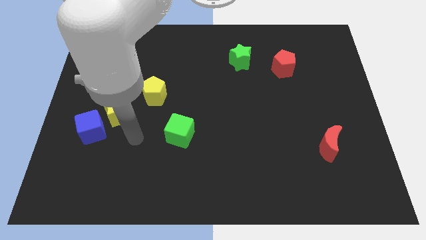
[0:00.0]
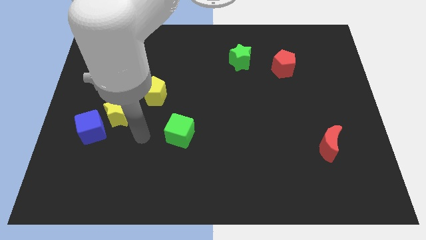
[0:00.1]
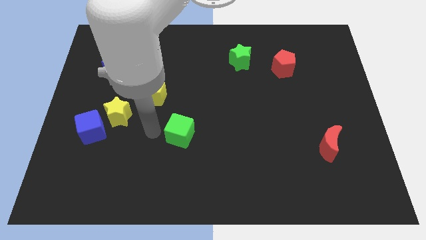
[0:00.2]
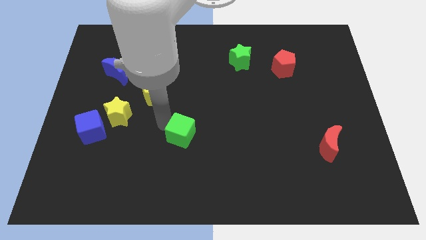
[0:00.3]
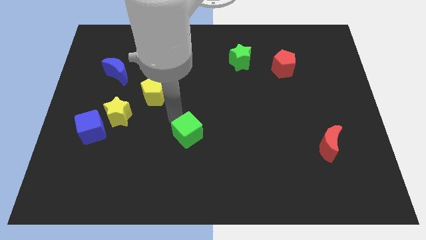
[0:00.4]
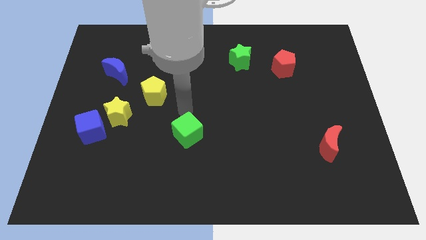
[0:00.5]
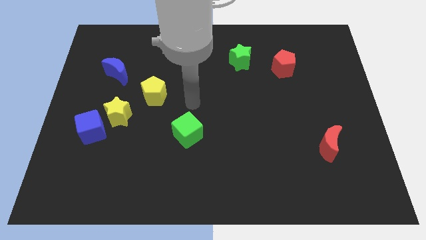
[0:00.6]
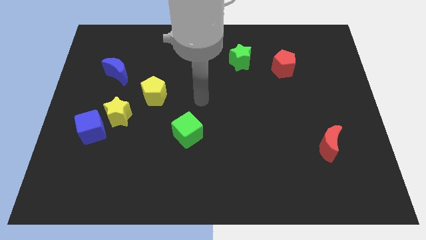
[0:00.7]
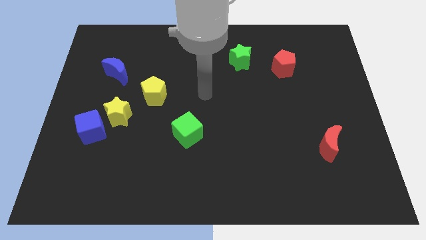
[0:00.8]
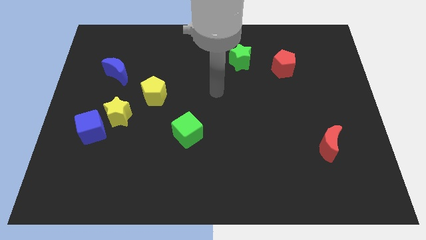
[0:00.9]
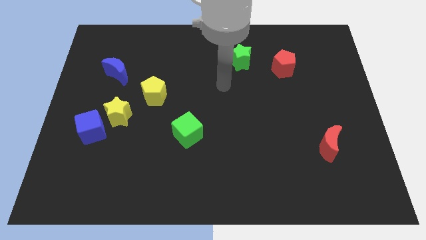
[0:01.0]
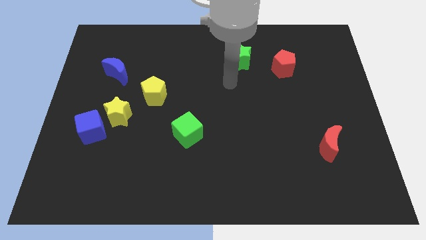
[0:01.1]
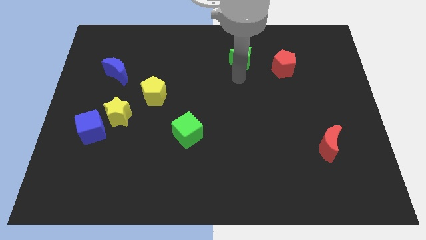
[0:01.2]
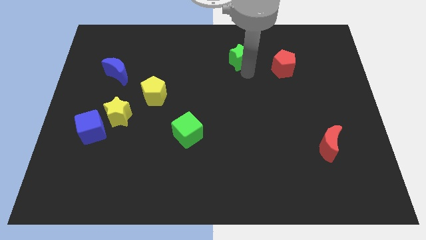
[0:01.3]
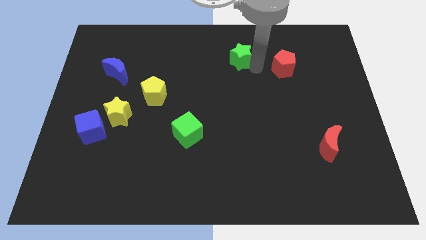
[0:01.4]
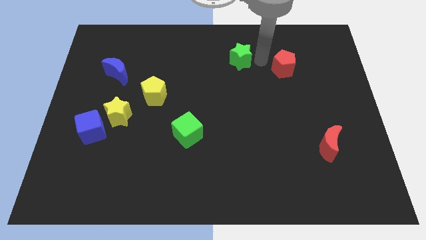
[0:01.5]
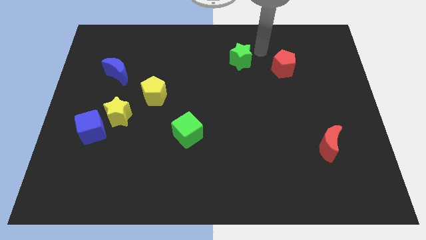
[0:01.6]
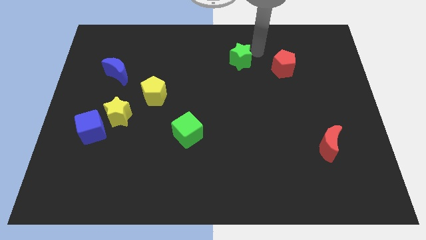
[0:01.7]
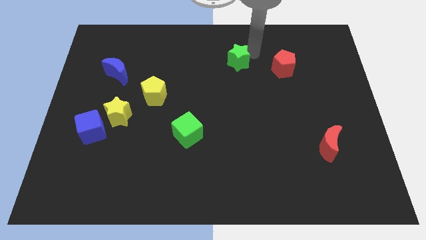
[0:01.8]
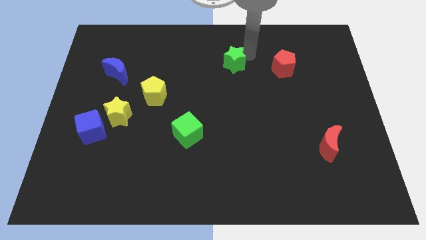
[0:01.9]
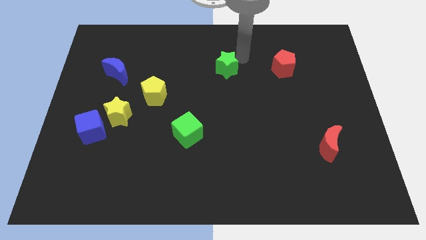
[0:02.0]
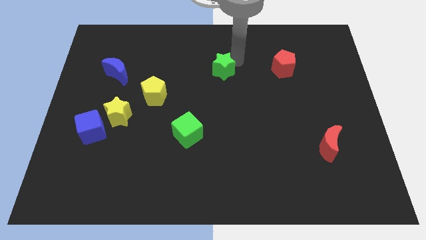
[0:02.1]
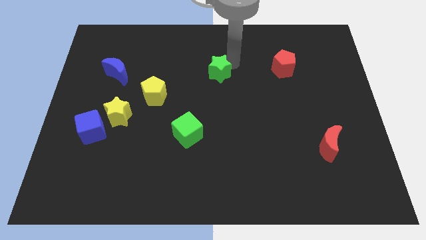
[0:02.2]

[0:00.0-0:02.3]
move the green star slightly down and then left

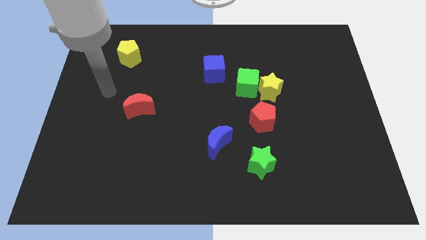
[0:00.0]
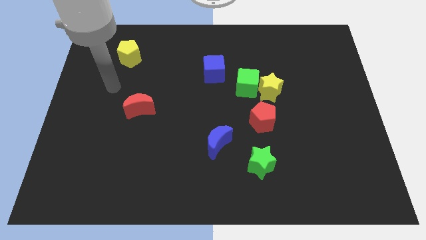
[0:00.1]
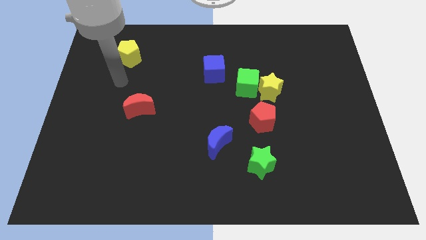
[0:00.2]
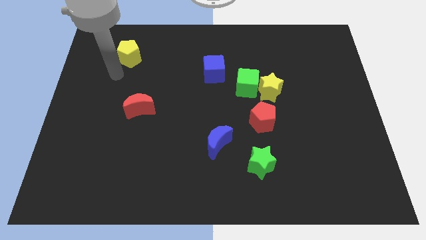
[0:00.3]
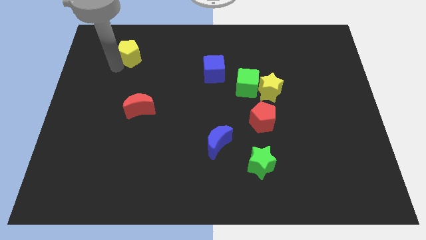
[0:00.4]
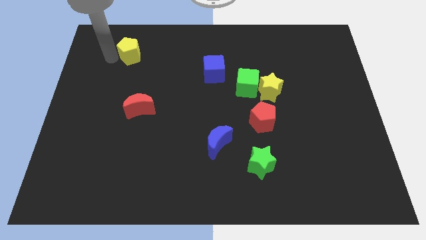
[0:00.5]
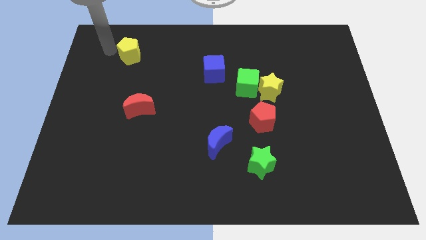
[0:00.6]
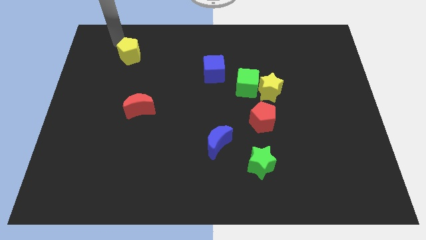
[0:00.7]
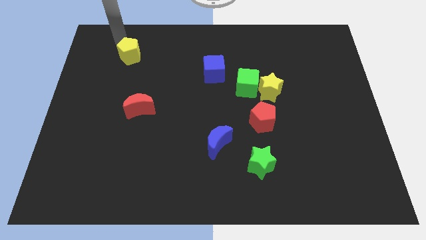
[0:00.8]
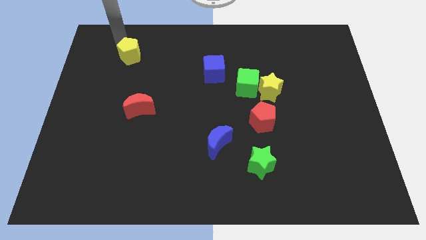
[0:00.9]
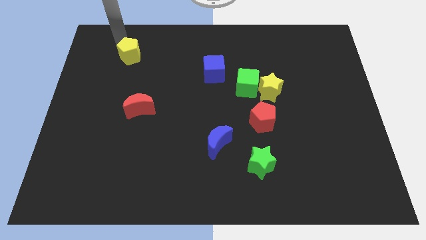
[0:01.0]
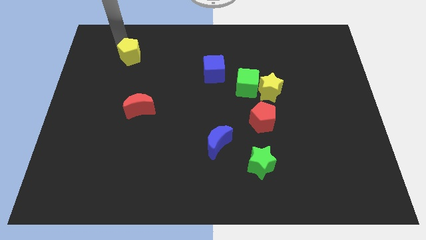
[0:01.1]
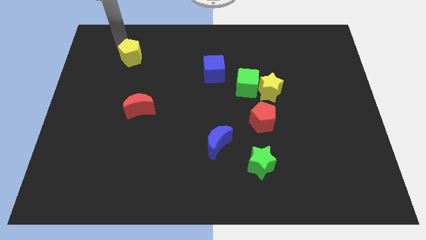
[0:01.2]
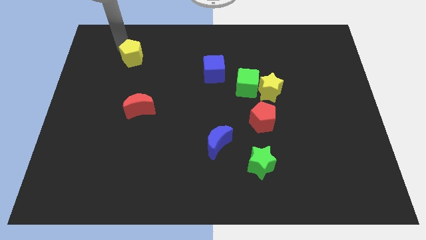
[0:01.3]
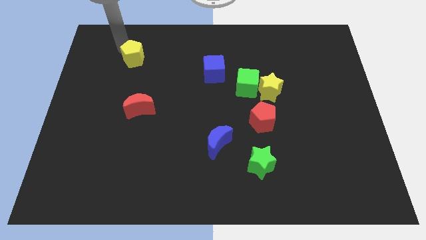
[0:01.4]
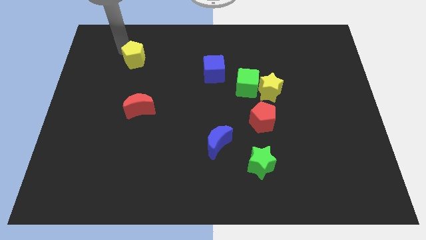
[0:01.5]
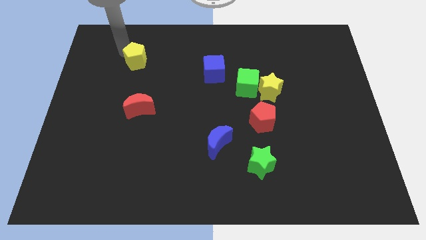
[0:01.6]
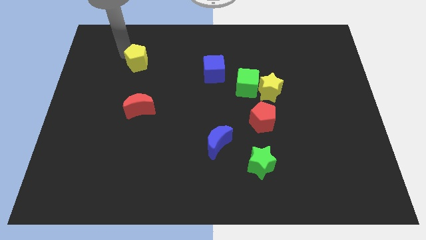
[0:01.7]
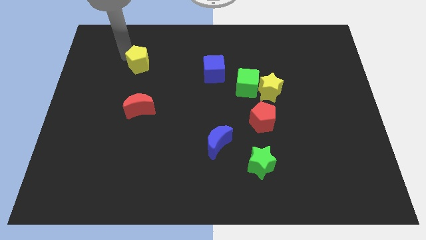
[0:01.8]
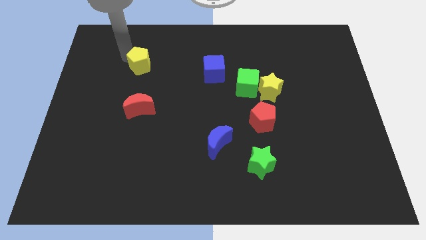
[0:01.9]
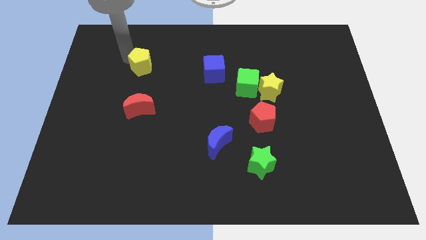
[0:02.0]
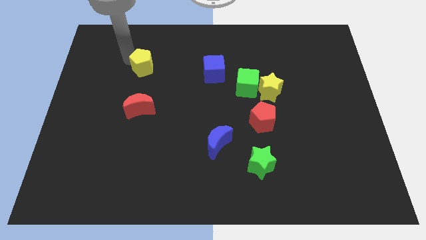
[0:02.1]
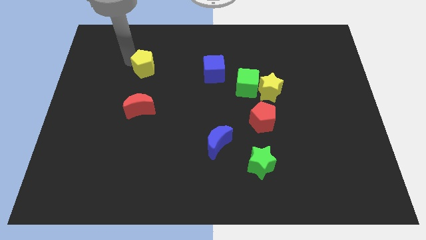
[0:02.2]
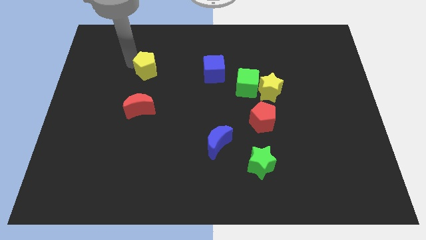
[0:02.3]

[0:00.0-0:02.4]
slightly move the yellow pentagon diagonally down and to the right

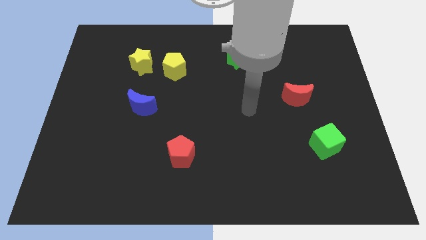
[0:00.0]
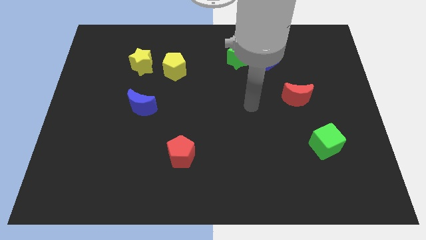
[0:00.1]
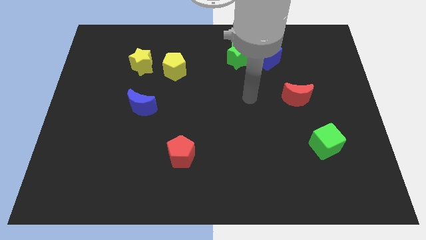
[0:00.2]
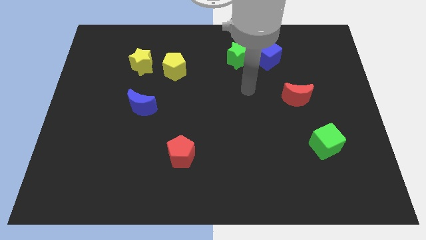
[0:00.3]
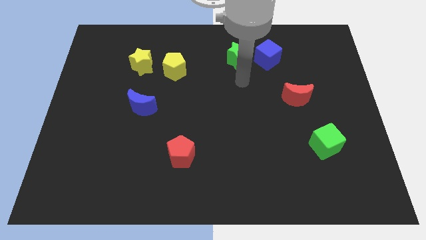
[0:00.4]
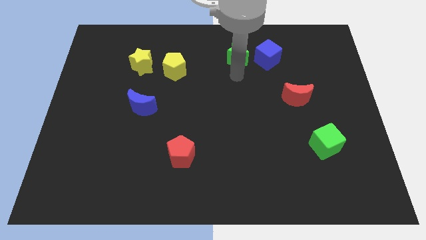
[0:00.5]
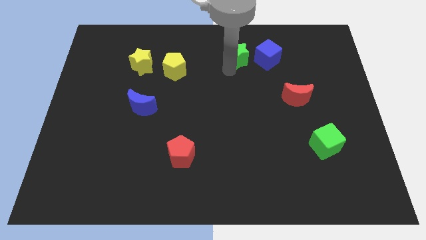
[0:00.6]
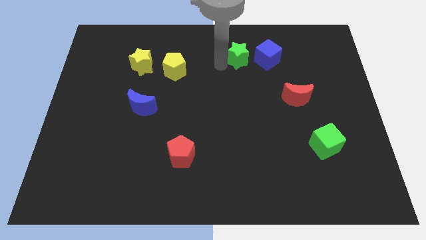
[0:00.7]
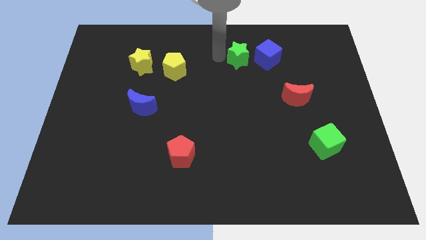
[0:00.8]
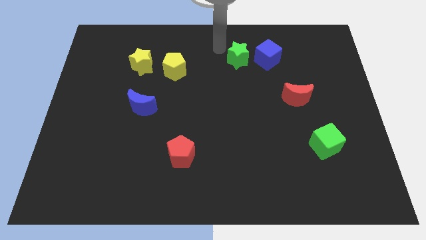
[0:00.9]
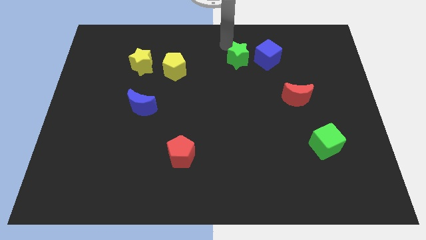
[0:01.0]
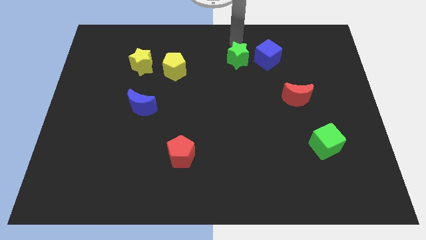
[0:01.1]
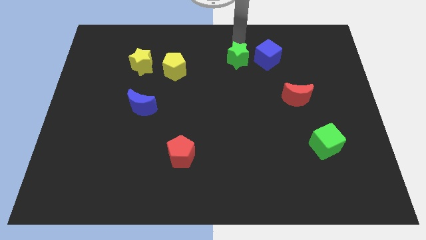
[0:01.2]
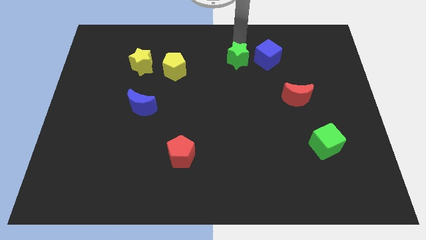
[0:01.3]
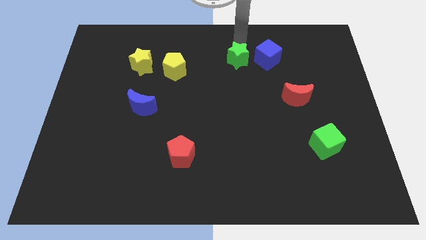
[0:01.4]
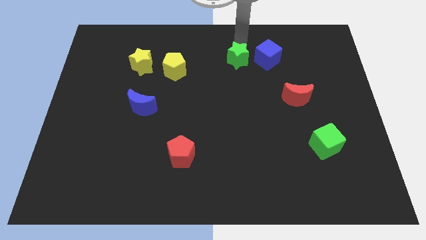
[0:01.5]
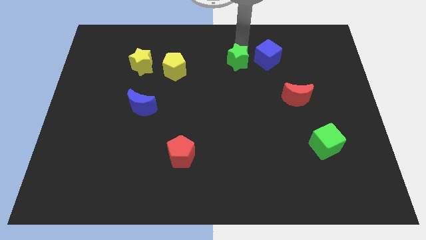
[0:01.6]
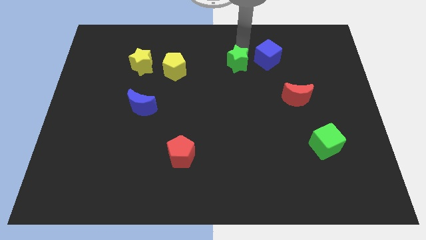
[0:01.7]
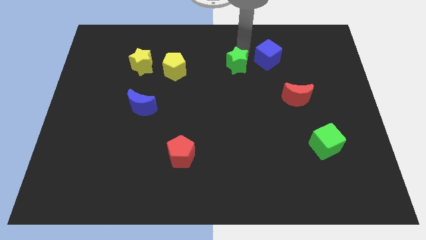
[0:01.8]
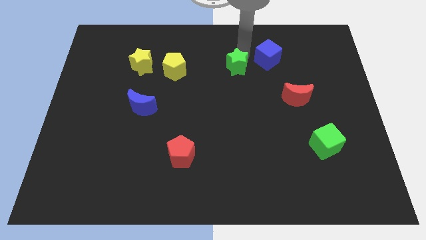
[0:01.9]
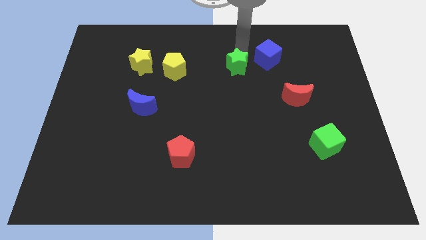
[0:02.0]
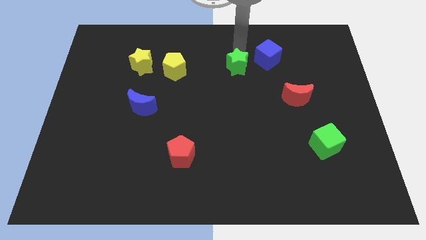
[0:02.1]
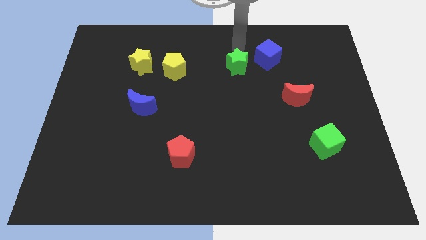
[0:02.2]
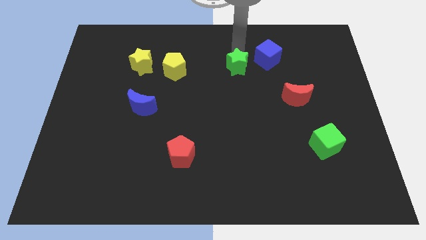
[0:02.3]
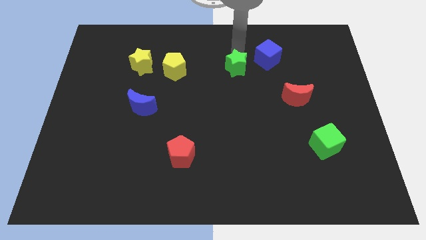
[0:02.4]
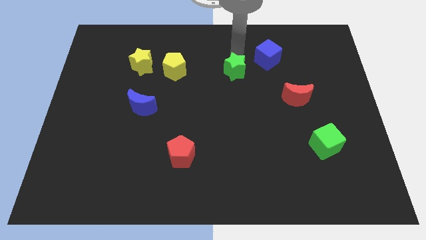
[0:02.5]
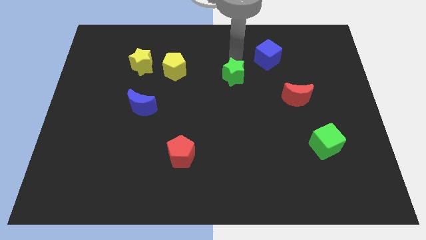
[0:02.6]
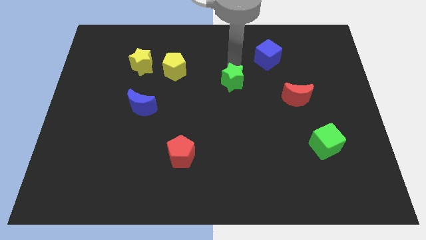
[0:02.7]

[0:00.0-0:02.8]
push the green star slightly downwards

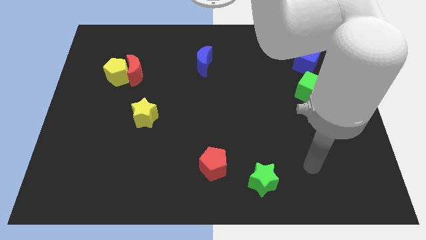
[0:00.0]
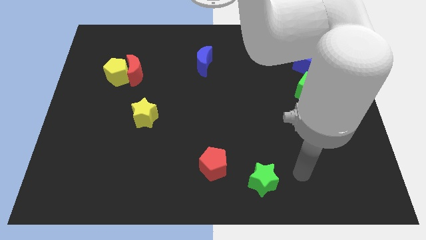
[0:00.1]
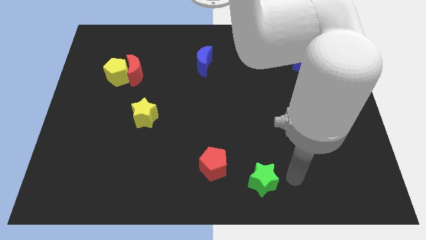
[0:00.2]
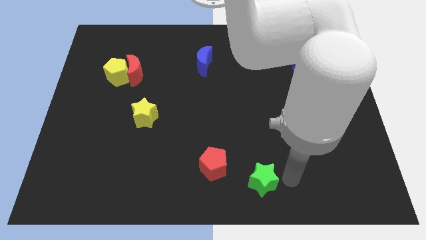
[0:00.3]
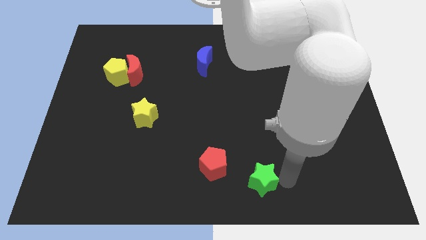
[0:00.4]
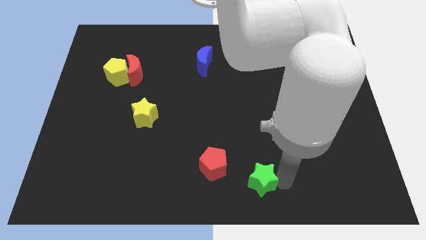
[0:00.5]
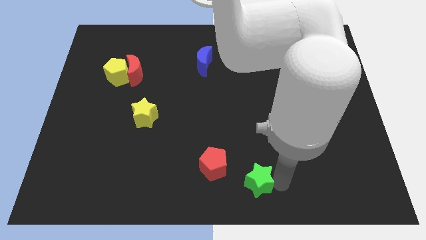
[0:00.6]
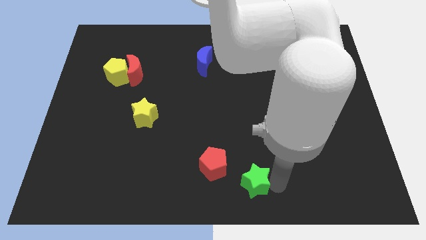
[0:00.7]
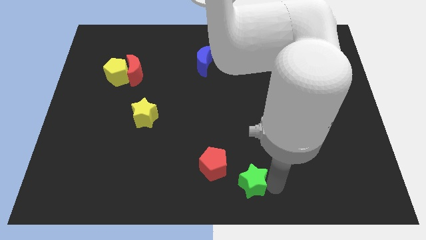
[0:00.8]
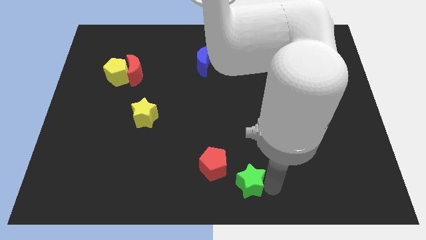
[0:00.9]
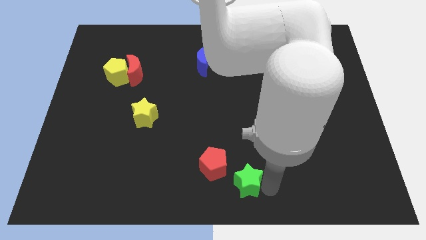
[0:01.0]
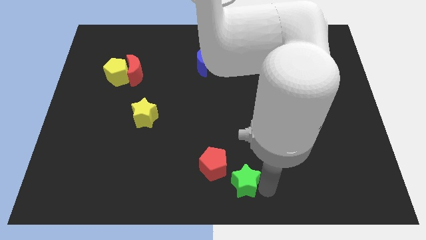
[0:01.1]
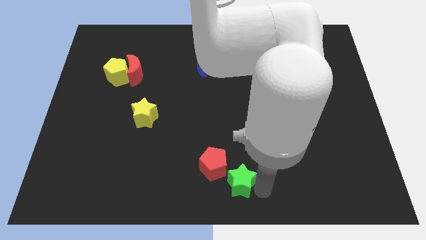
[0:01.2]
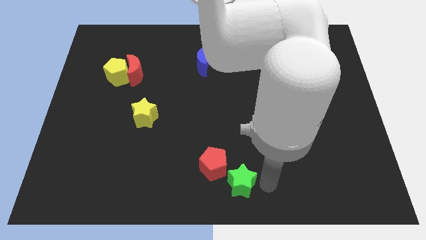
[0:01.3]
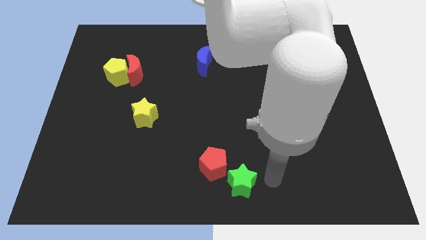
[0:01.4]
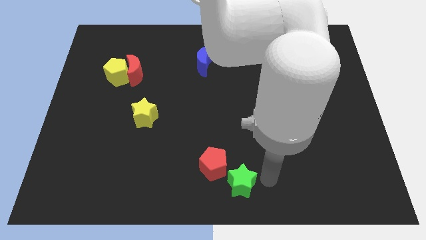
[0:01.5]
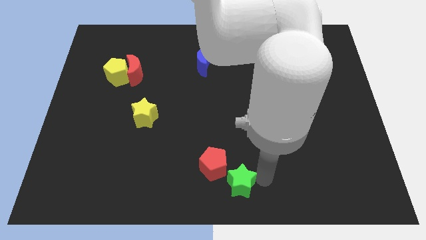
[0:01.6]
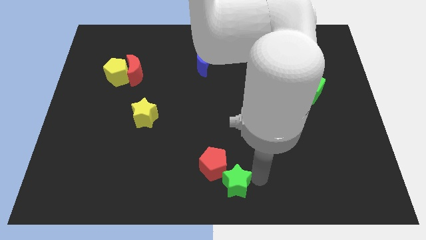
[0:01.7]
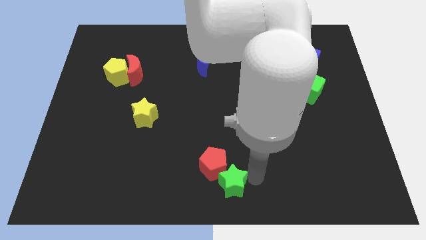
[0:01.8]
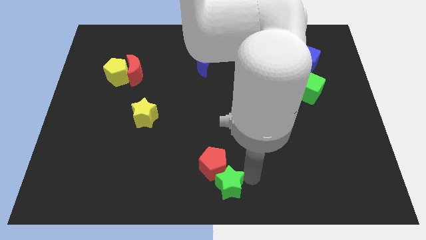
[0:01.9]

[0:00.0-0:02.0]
slide the green star to the left somewhat
